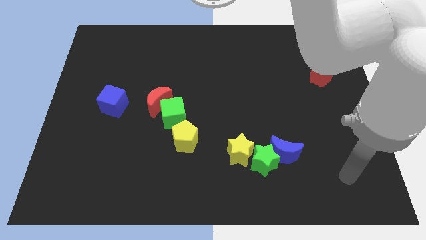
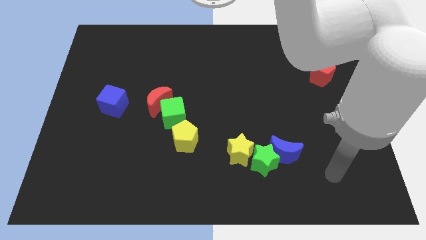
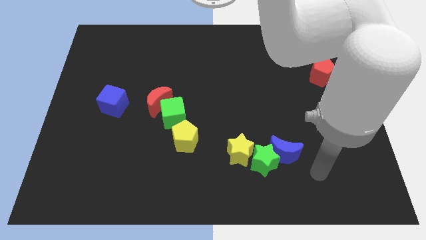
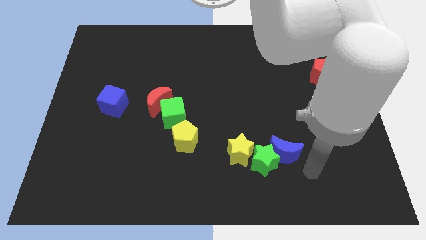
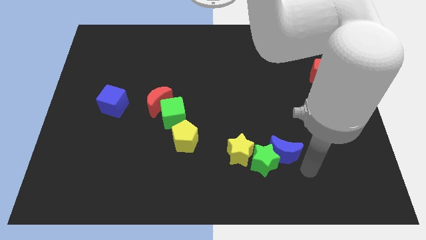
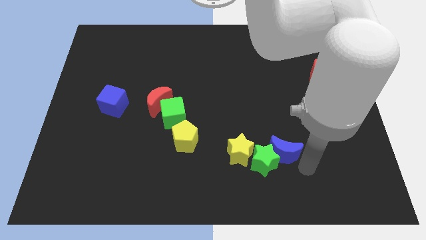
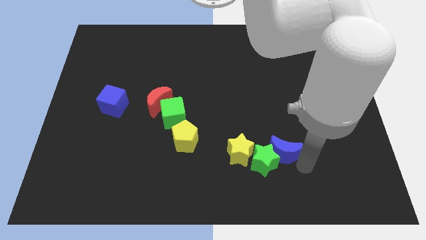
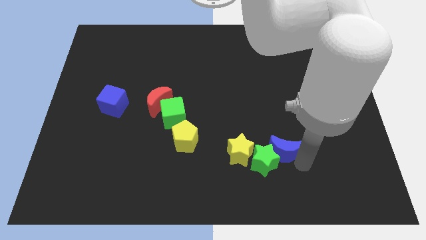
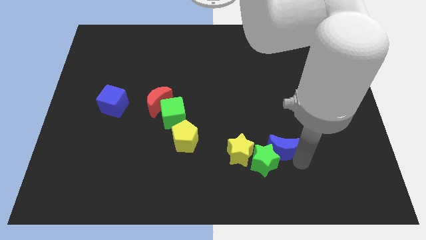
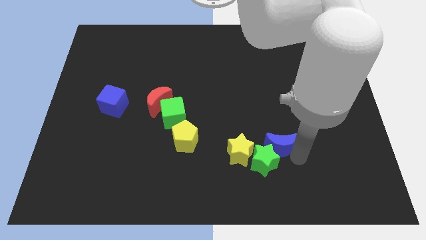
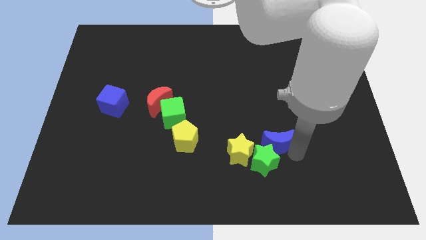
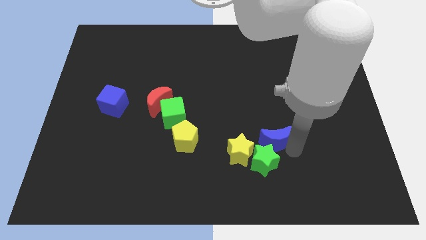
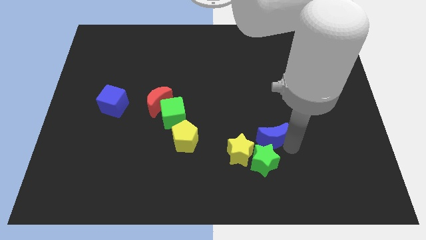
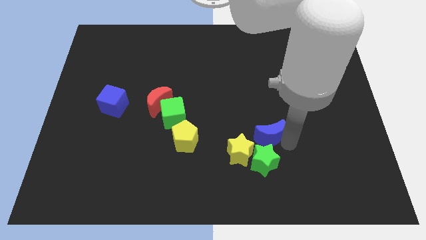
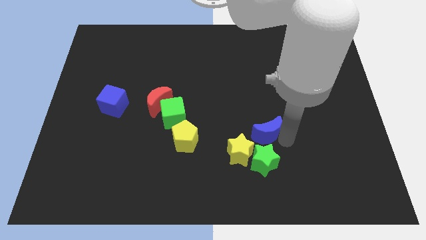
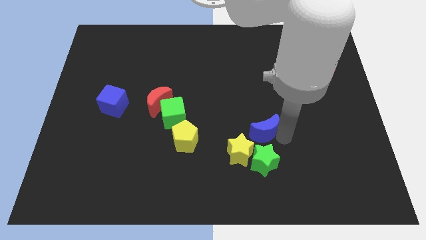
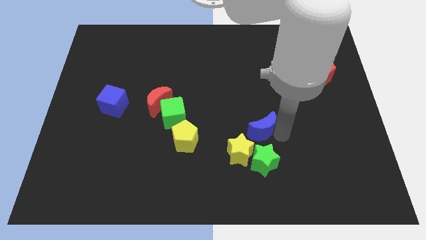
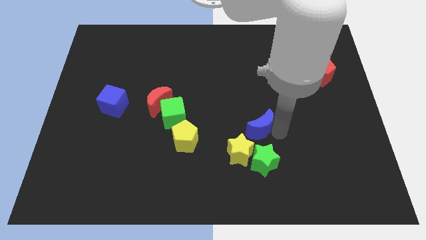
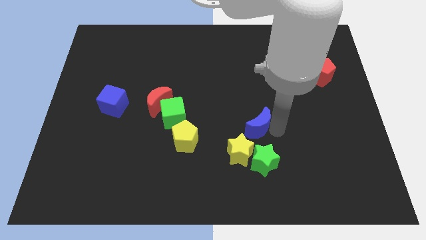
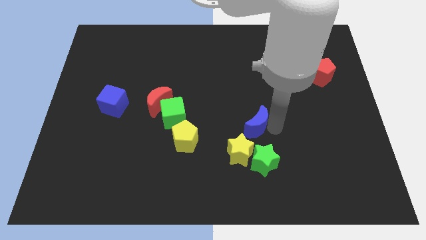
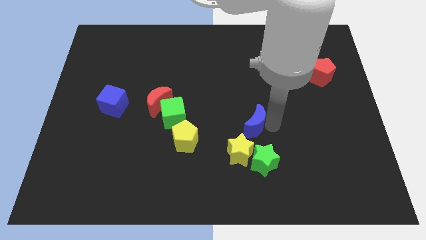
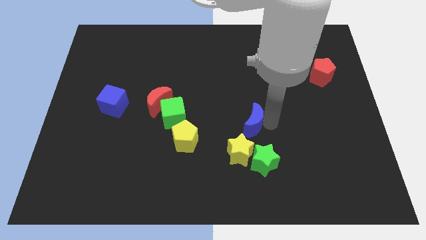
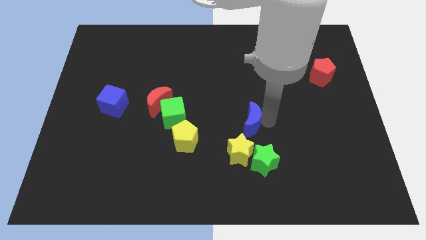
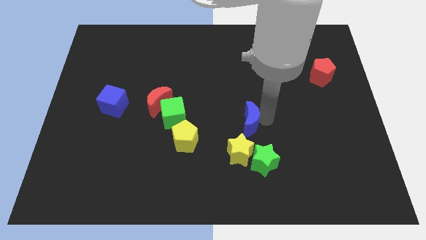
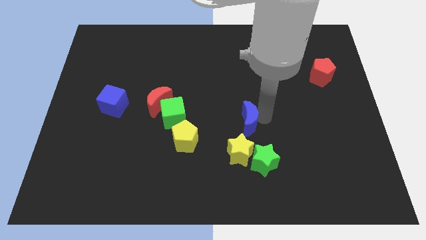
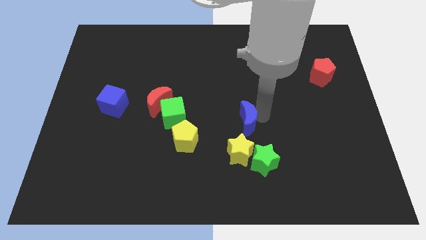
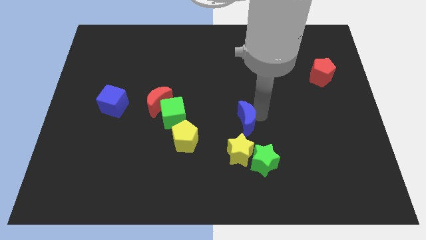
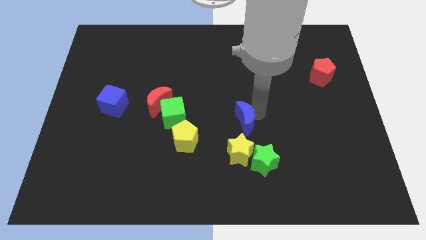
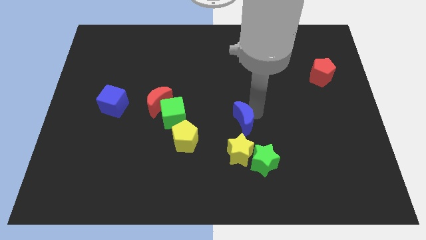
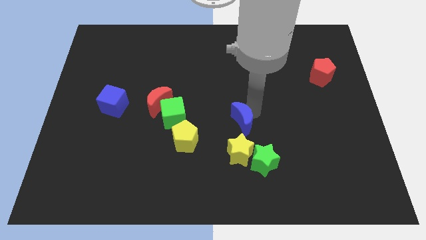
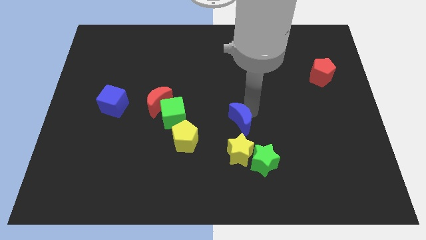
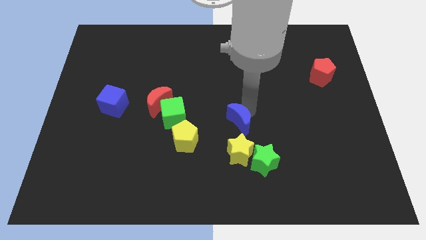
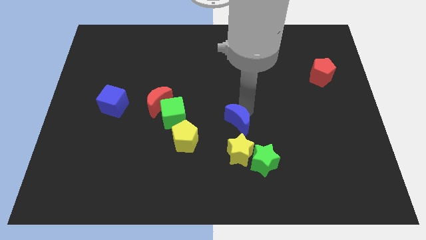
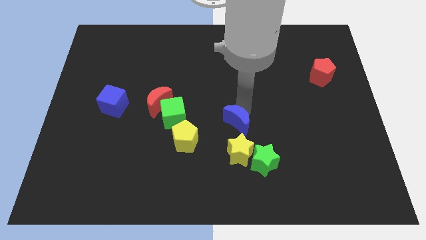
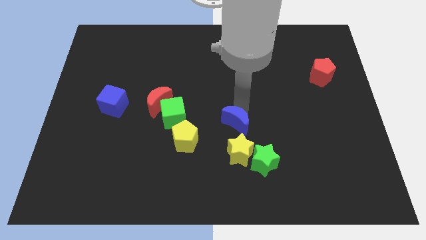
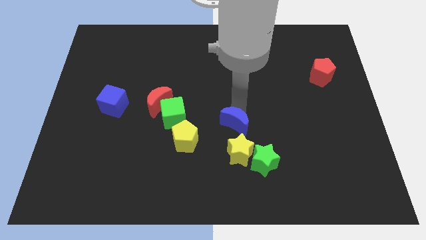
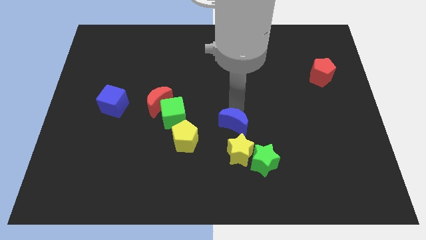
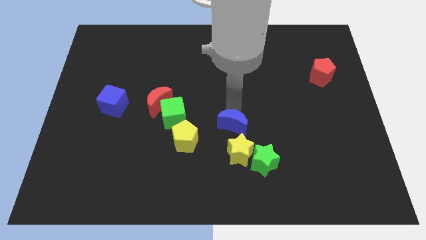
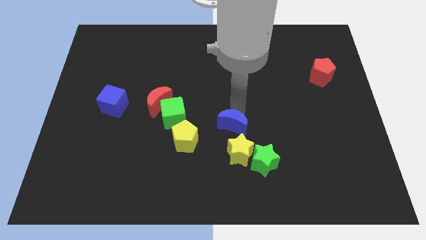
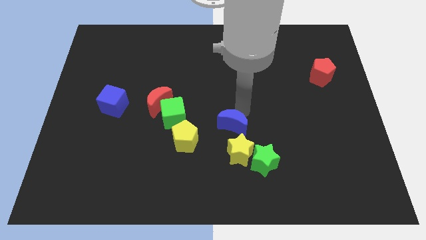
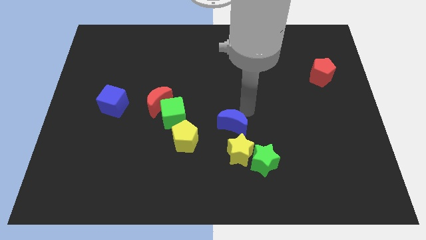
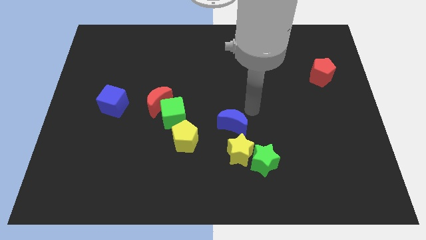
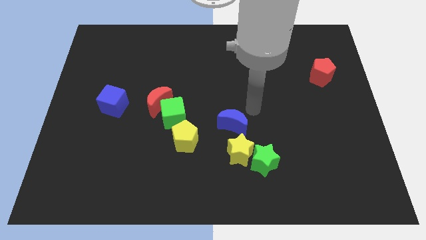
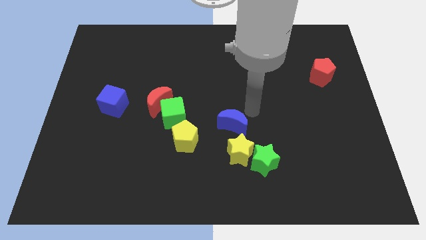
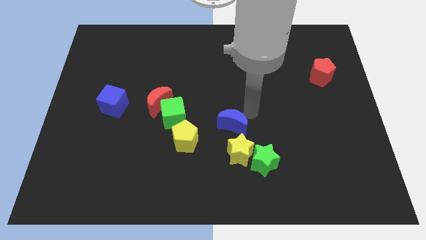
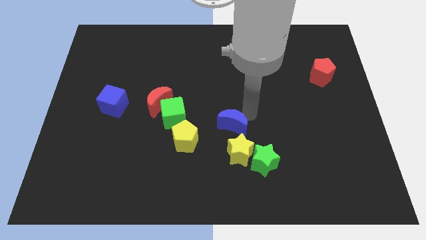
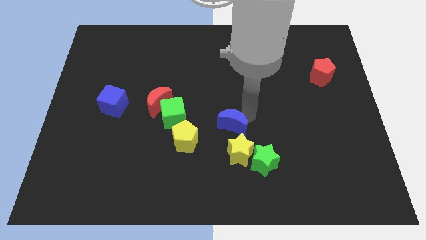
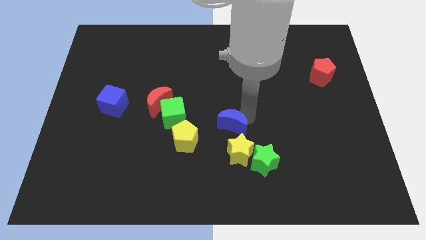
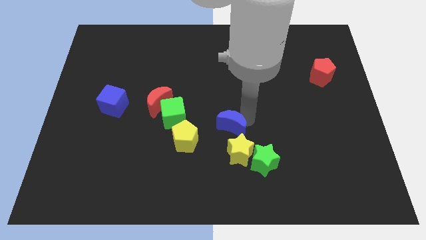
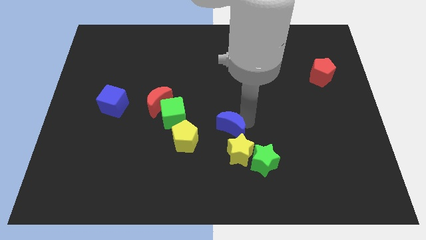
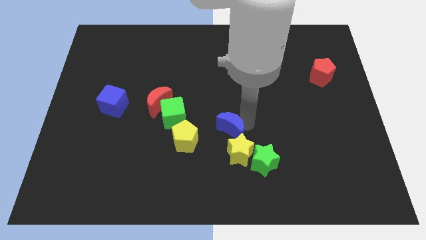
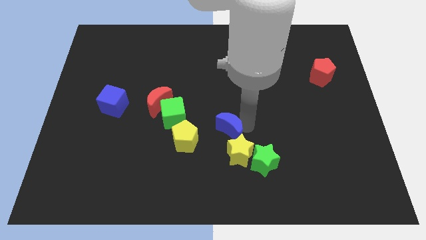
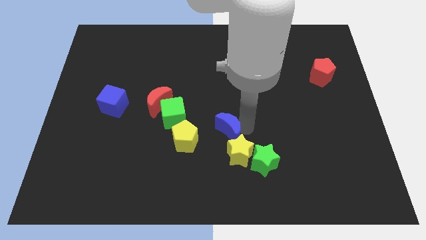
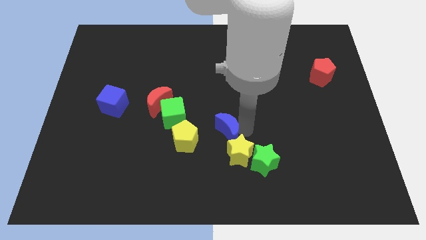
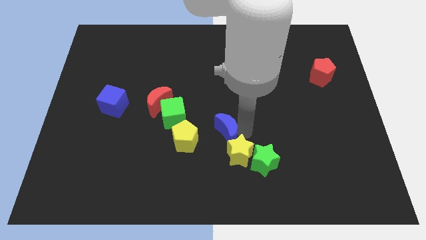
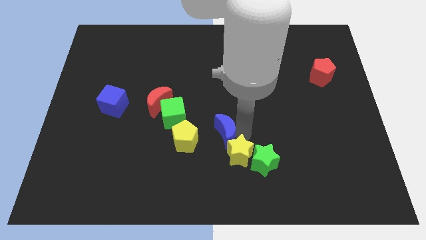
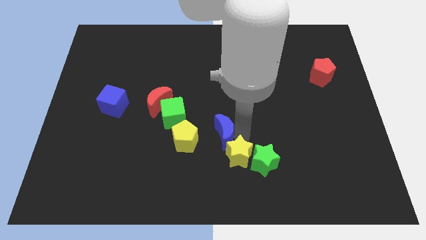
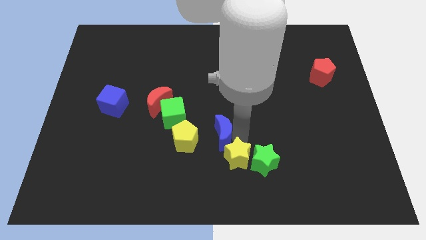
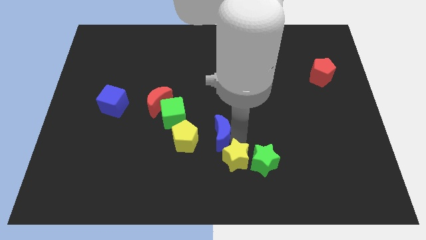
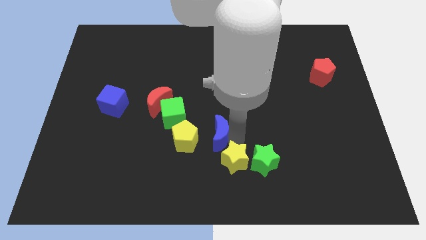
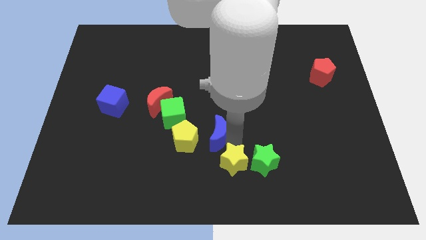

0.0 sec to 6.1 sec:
put the blue moon to the bottom right side of the green cube
